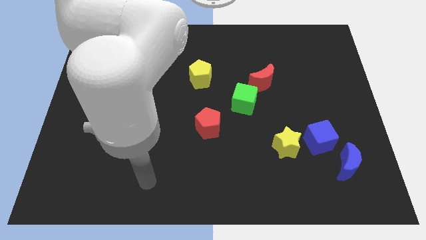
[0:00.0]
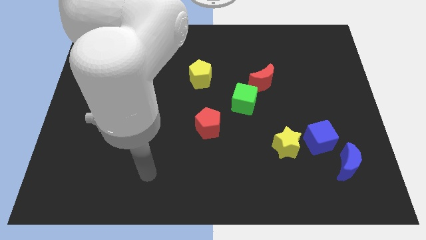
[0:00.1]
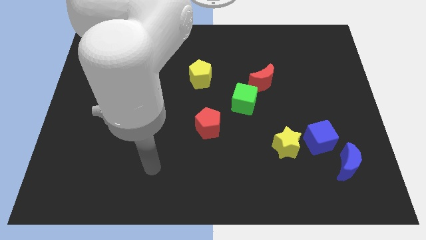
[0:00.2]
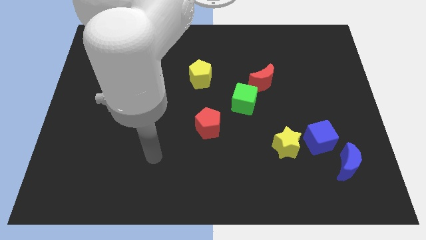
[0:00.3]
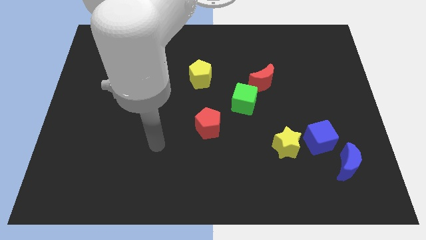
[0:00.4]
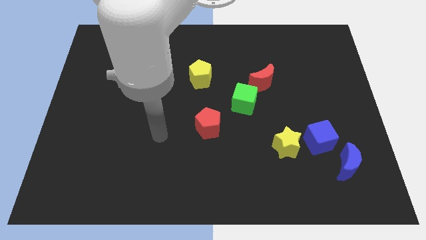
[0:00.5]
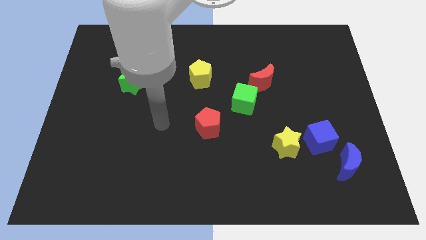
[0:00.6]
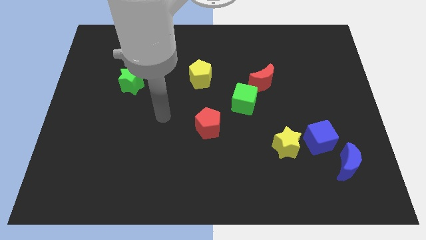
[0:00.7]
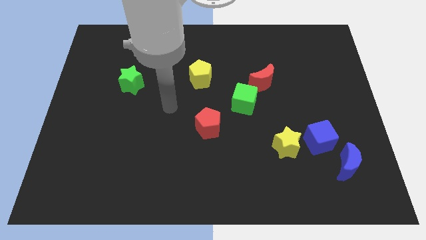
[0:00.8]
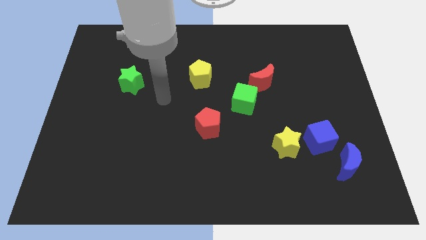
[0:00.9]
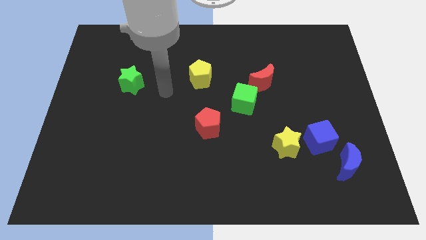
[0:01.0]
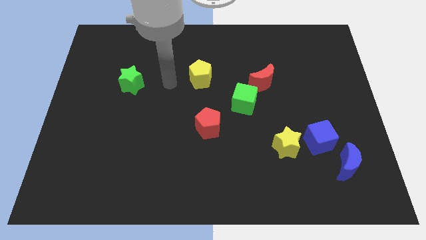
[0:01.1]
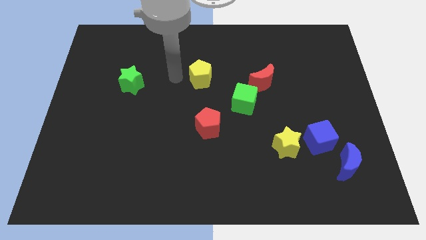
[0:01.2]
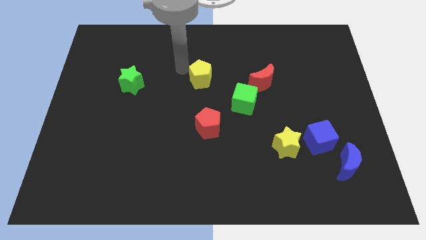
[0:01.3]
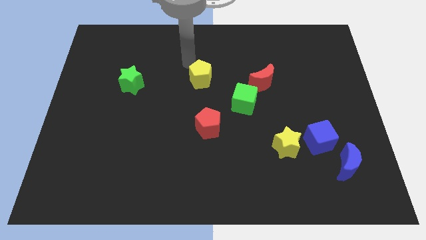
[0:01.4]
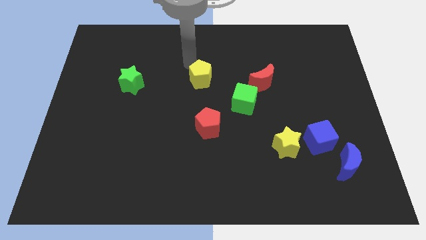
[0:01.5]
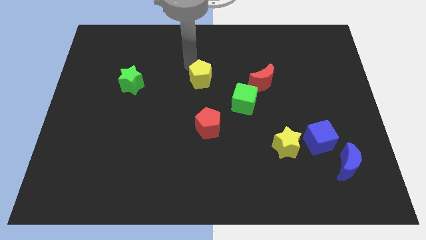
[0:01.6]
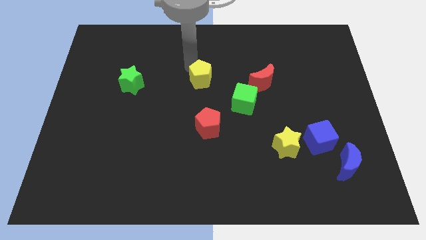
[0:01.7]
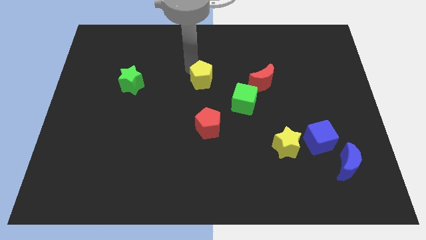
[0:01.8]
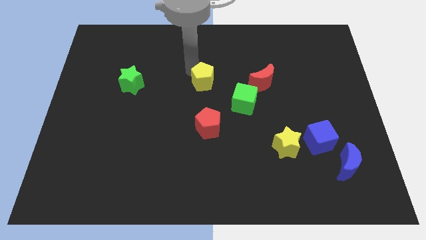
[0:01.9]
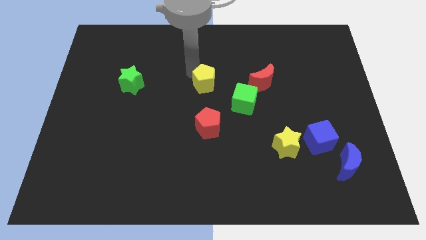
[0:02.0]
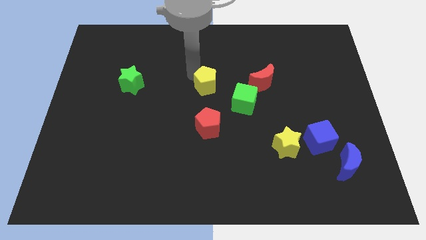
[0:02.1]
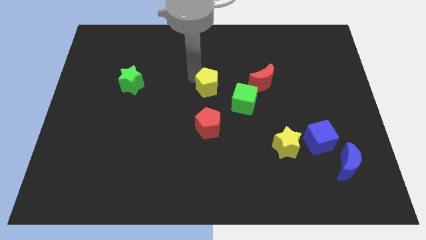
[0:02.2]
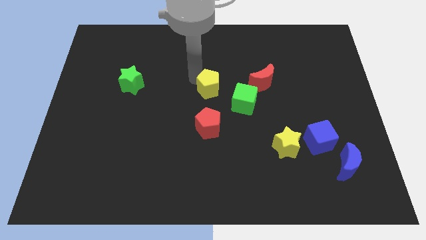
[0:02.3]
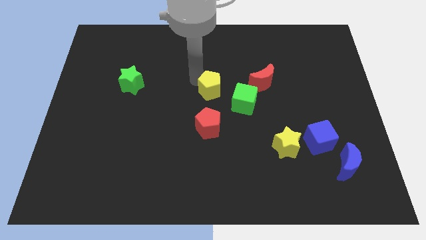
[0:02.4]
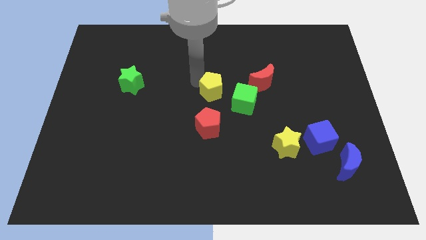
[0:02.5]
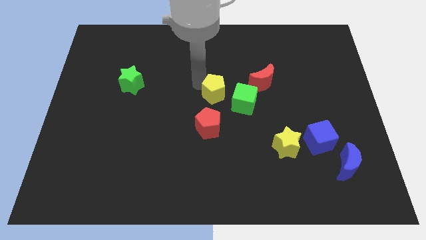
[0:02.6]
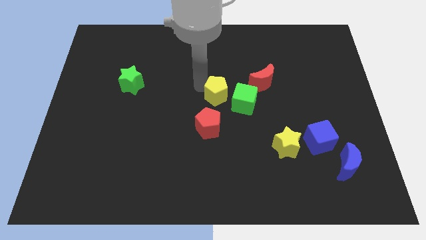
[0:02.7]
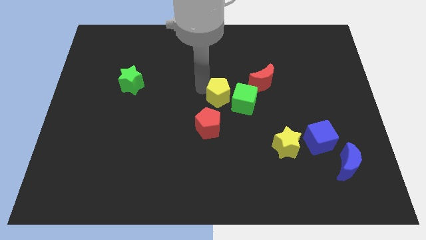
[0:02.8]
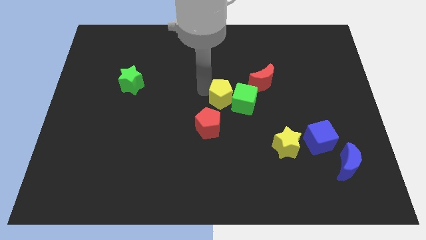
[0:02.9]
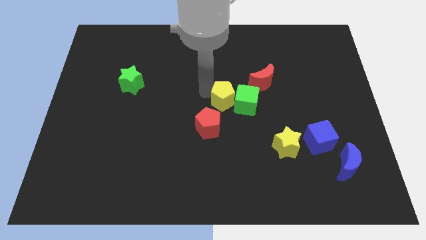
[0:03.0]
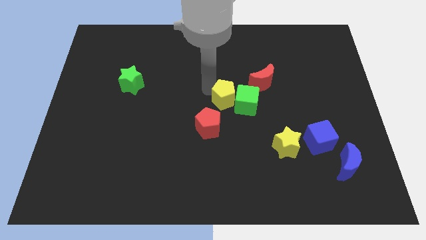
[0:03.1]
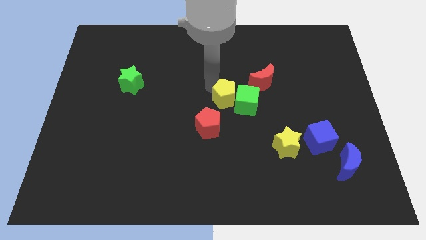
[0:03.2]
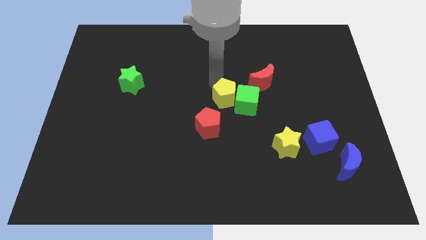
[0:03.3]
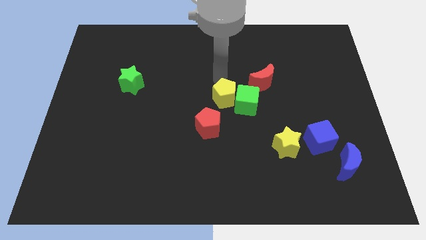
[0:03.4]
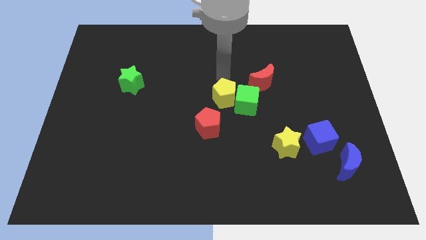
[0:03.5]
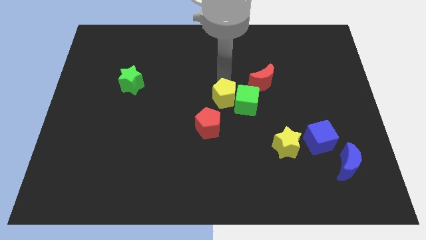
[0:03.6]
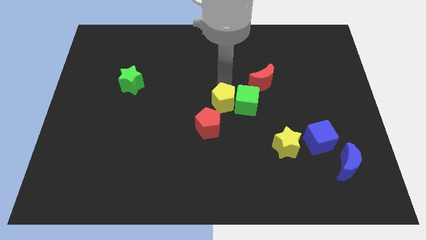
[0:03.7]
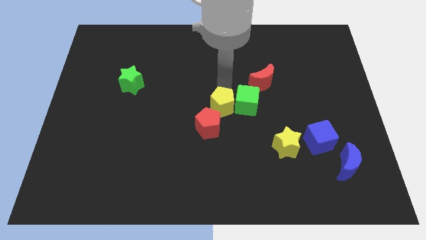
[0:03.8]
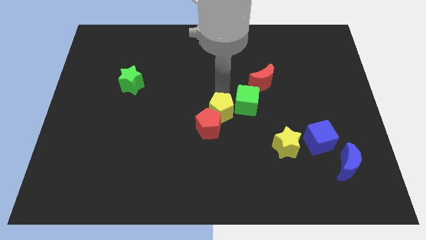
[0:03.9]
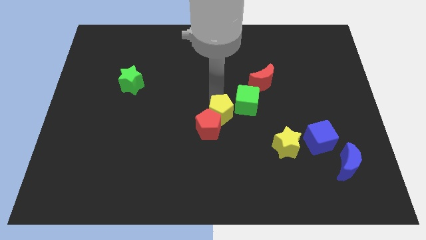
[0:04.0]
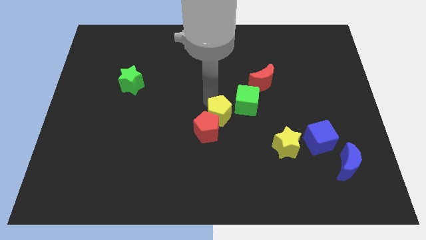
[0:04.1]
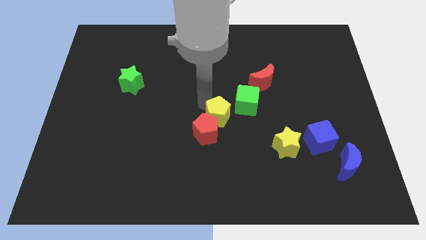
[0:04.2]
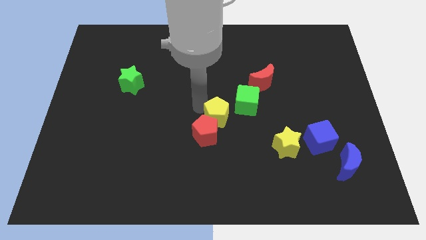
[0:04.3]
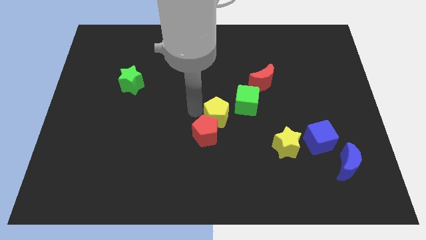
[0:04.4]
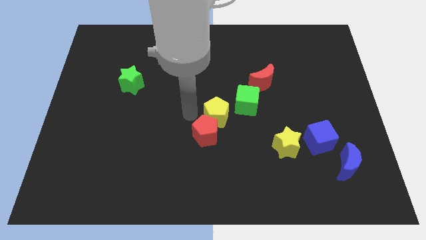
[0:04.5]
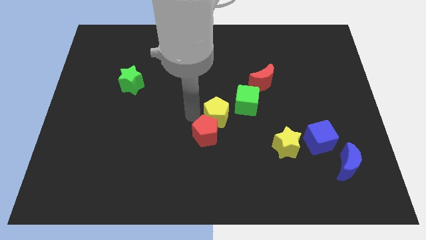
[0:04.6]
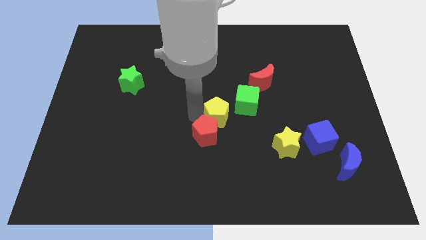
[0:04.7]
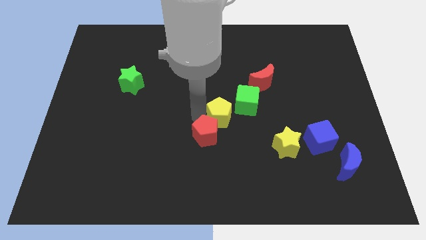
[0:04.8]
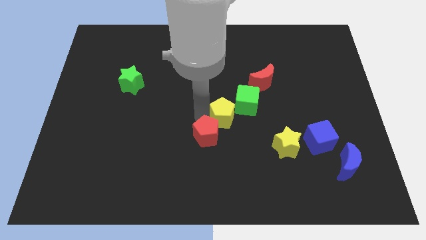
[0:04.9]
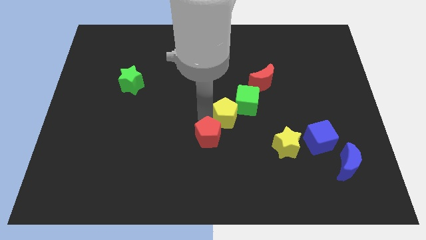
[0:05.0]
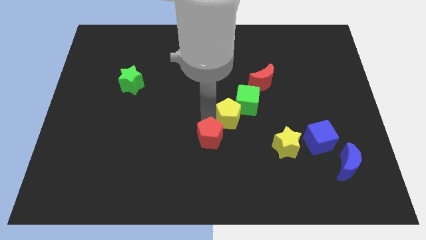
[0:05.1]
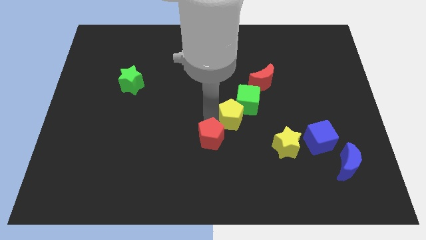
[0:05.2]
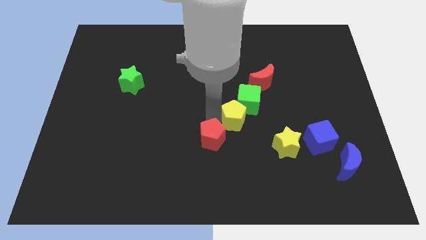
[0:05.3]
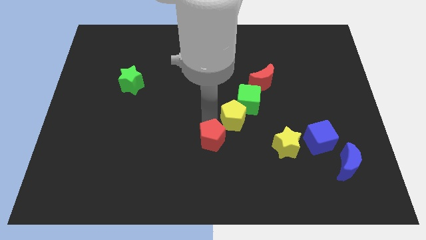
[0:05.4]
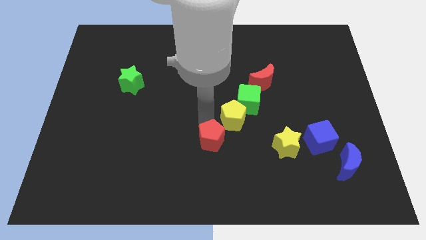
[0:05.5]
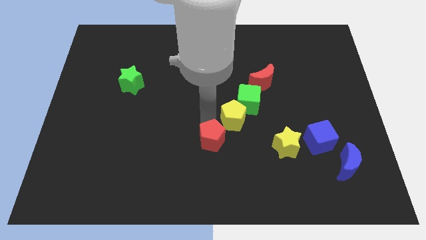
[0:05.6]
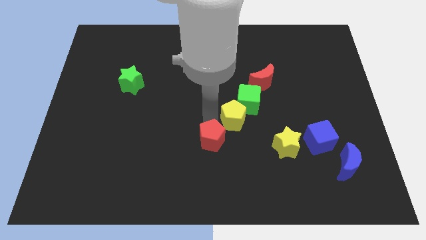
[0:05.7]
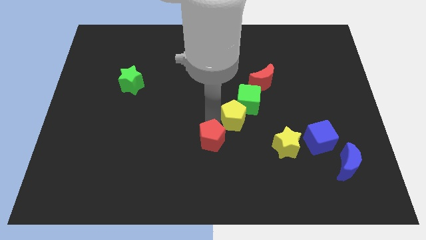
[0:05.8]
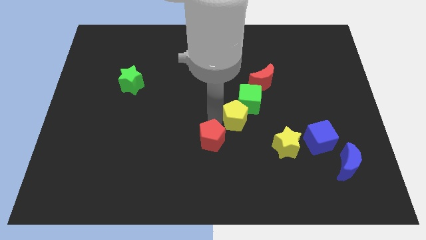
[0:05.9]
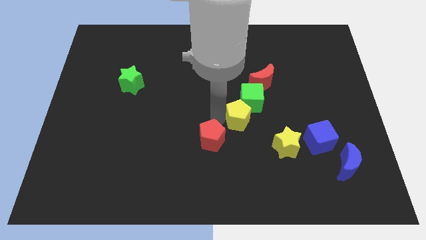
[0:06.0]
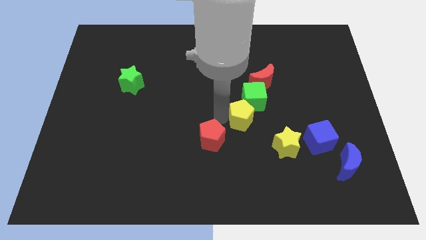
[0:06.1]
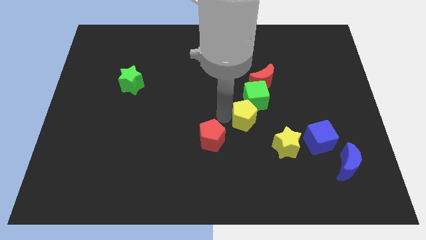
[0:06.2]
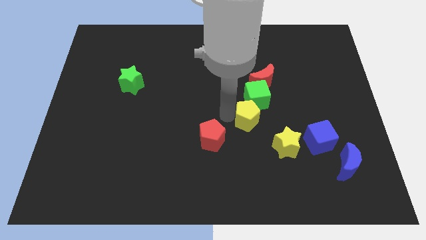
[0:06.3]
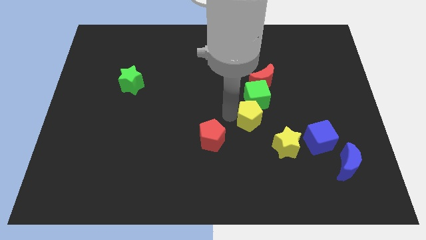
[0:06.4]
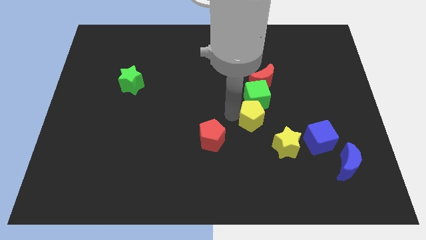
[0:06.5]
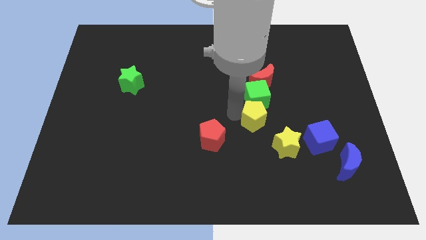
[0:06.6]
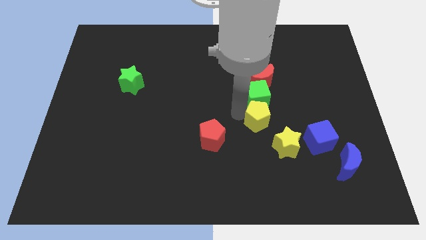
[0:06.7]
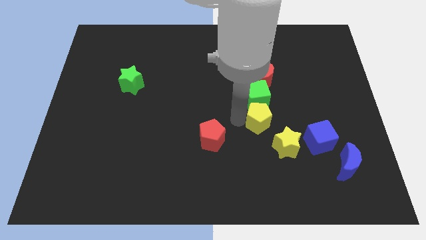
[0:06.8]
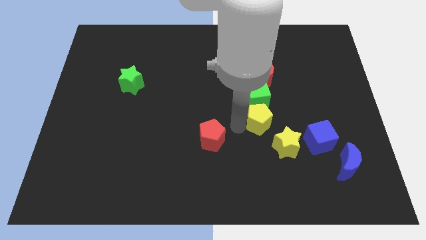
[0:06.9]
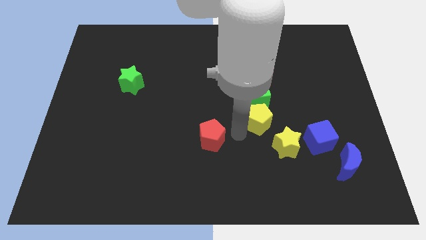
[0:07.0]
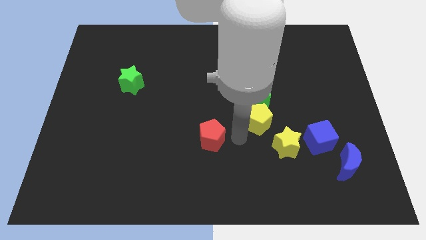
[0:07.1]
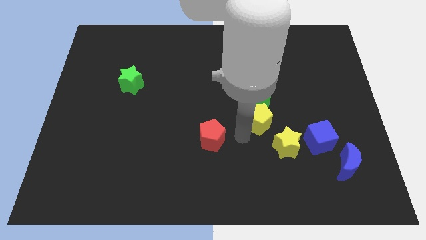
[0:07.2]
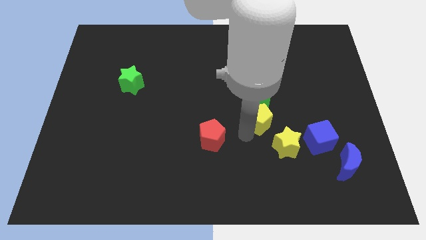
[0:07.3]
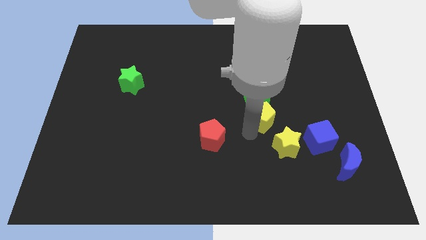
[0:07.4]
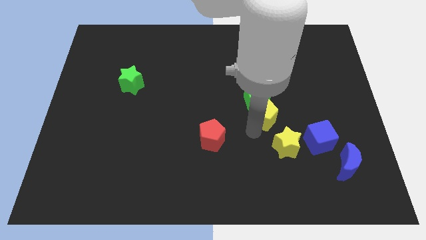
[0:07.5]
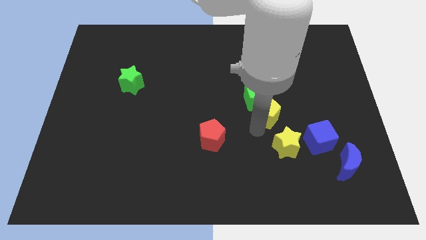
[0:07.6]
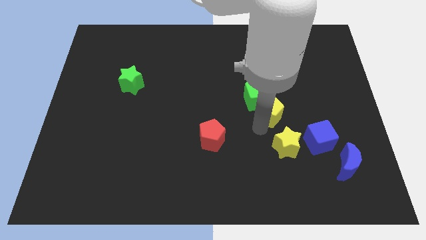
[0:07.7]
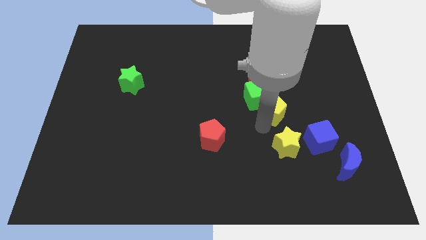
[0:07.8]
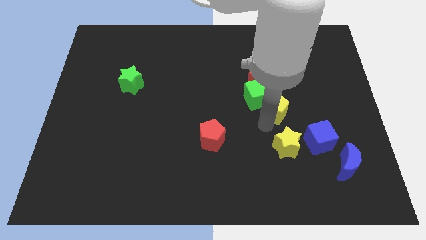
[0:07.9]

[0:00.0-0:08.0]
move the yellow pentagon diagonally down and to the right of the red moon
